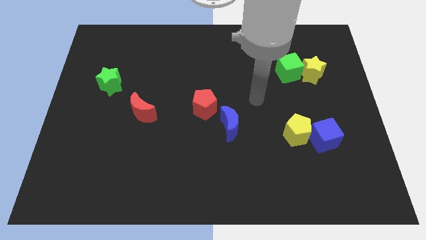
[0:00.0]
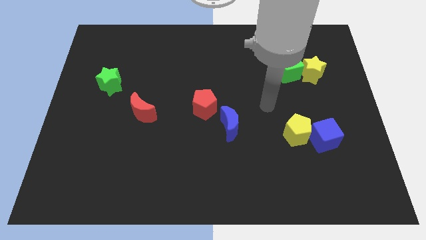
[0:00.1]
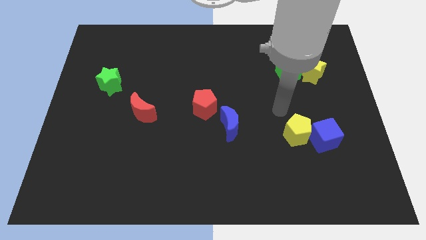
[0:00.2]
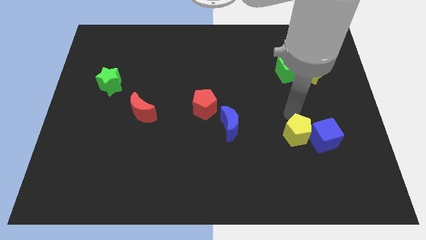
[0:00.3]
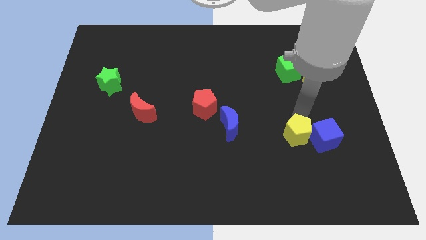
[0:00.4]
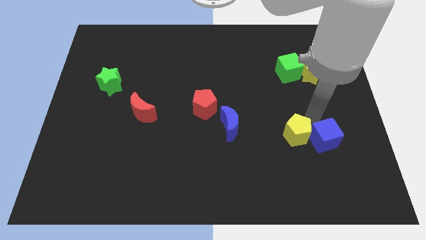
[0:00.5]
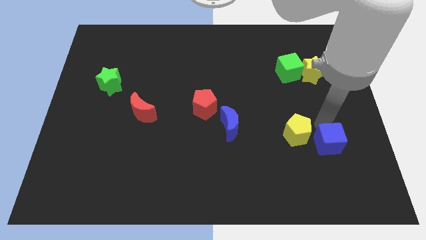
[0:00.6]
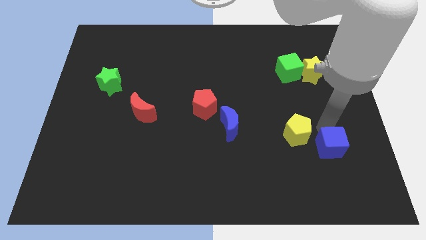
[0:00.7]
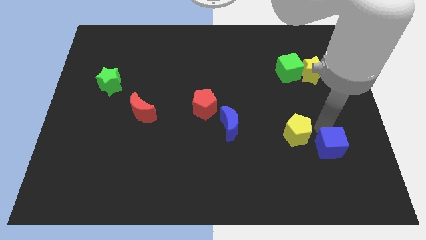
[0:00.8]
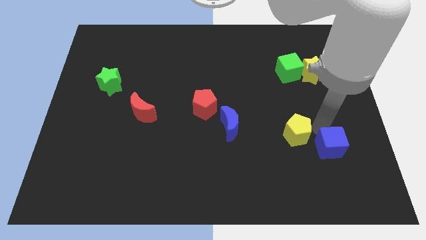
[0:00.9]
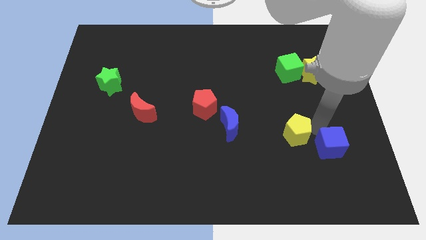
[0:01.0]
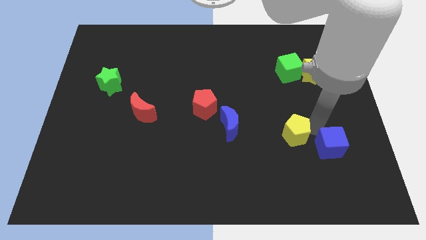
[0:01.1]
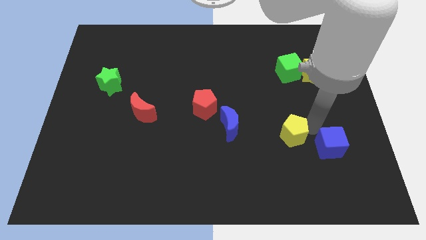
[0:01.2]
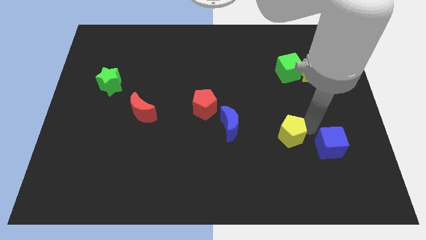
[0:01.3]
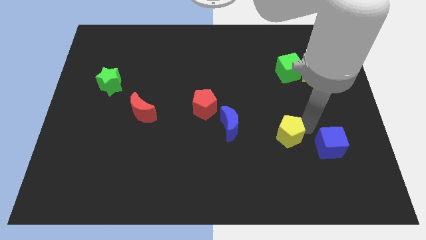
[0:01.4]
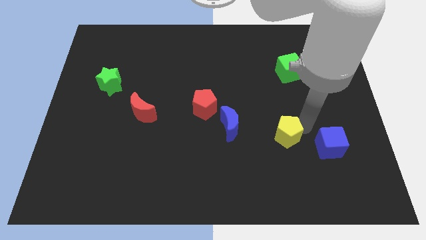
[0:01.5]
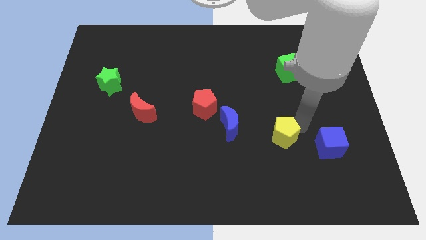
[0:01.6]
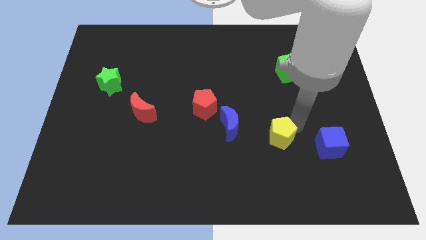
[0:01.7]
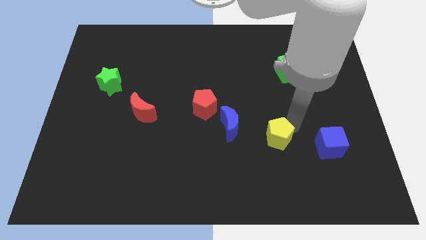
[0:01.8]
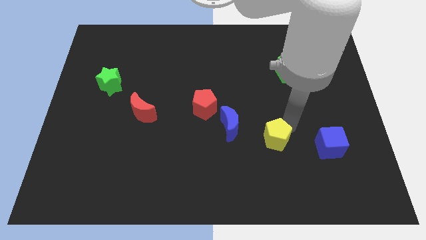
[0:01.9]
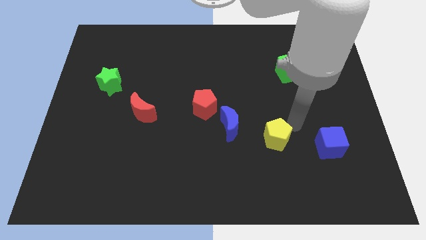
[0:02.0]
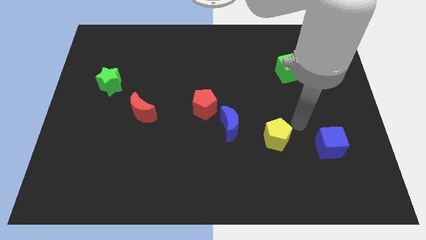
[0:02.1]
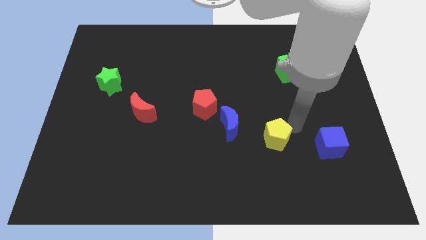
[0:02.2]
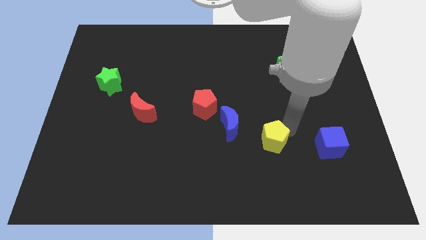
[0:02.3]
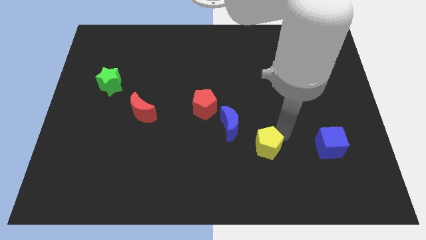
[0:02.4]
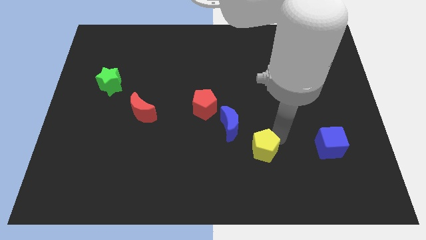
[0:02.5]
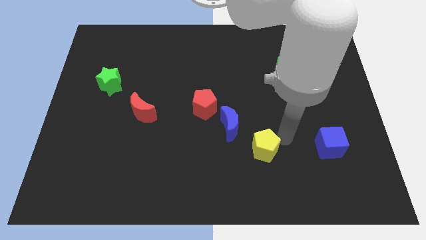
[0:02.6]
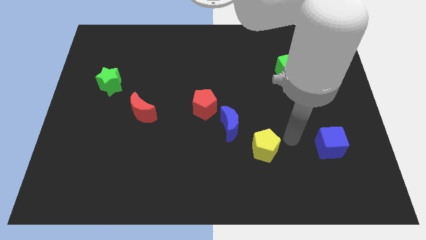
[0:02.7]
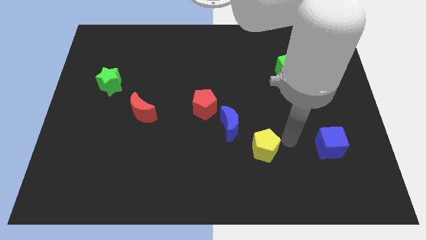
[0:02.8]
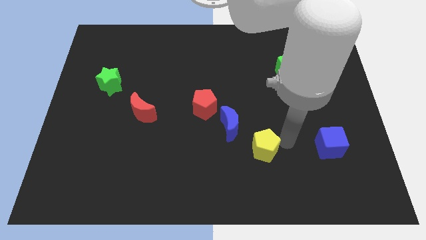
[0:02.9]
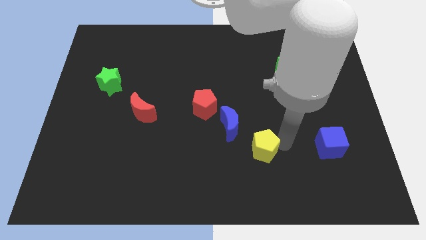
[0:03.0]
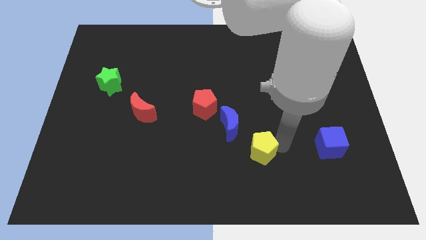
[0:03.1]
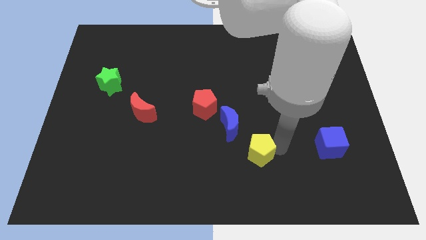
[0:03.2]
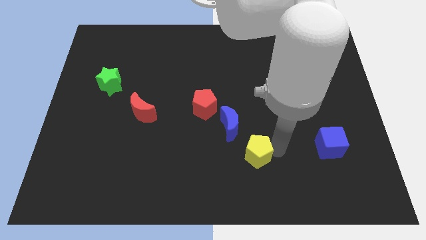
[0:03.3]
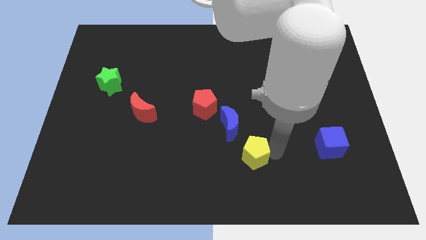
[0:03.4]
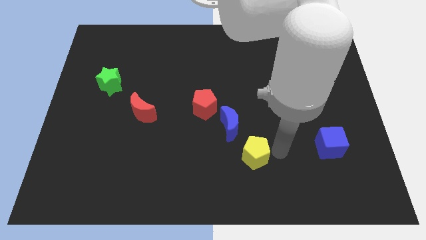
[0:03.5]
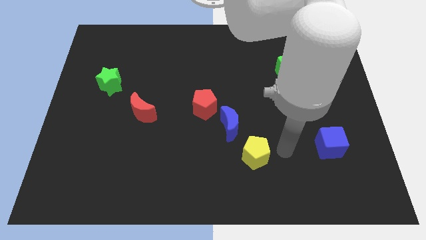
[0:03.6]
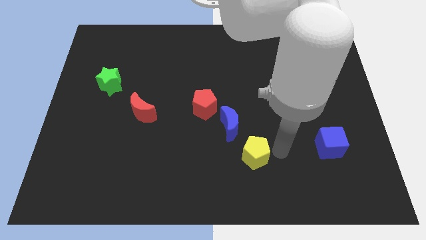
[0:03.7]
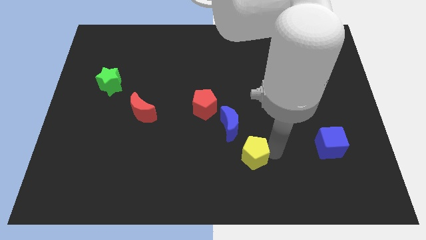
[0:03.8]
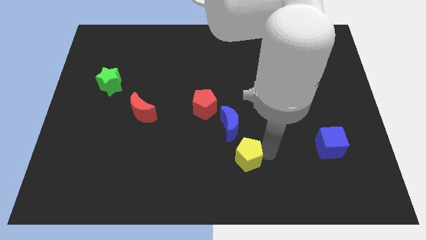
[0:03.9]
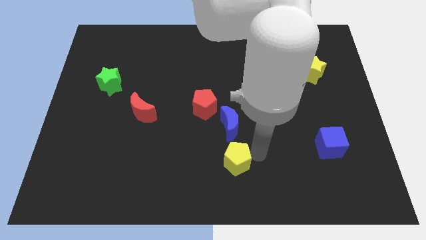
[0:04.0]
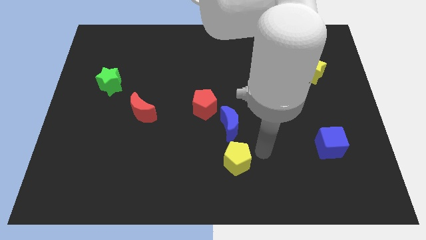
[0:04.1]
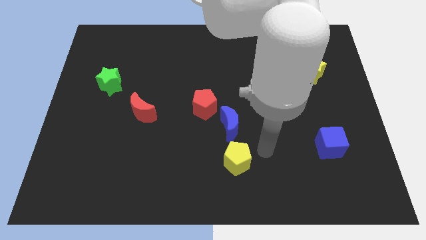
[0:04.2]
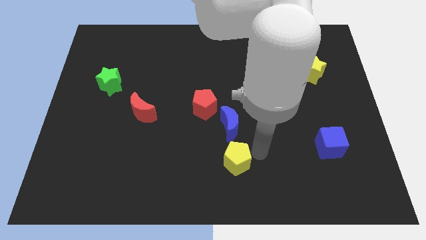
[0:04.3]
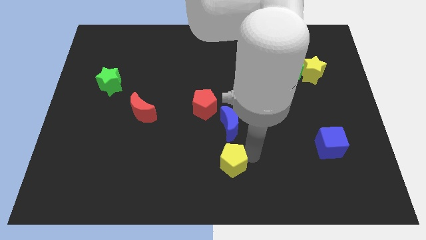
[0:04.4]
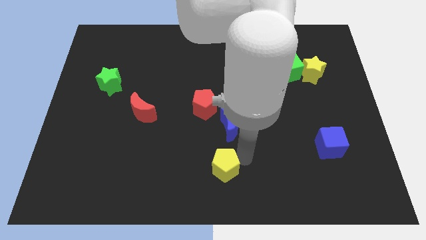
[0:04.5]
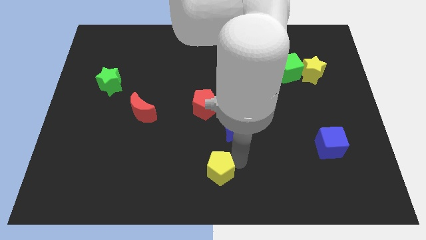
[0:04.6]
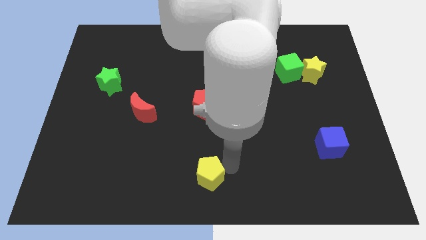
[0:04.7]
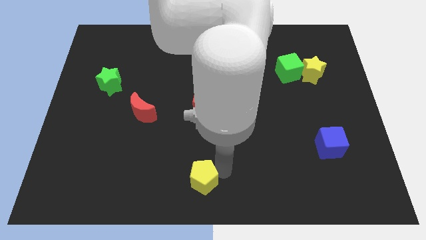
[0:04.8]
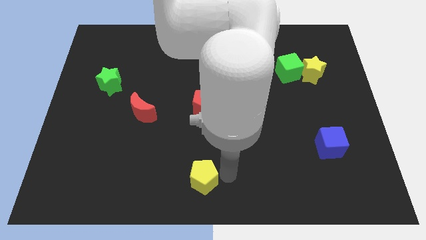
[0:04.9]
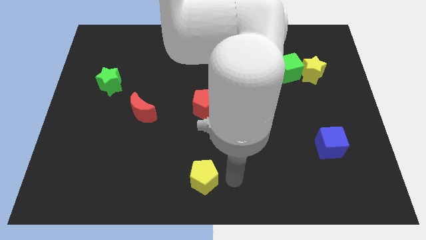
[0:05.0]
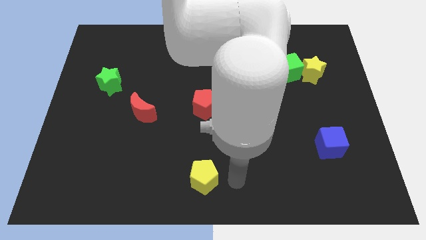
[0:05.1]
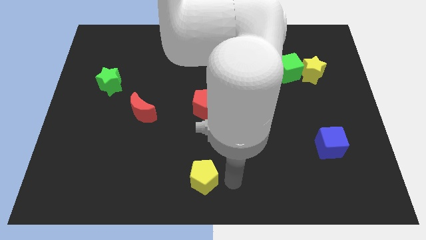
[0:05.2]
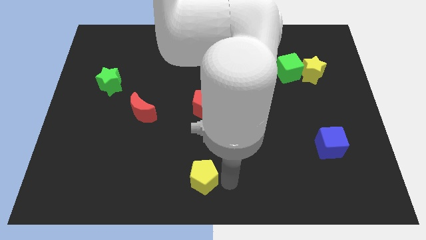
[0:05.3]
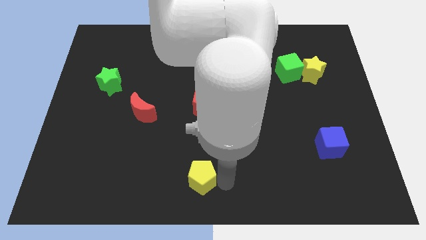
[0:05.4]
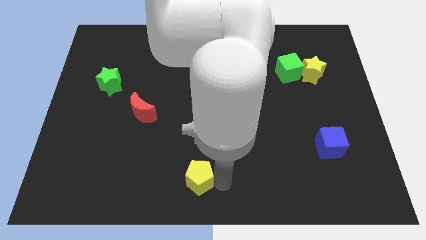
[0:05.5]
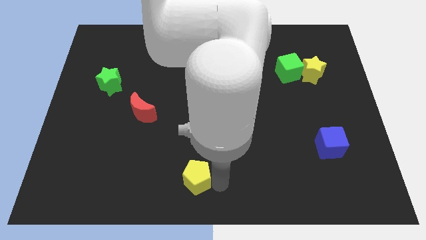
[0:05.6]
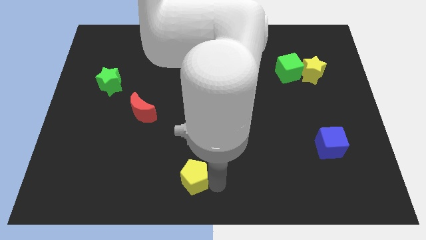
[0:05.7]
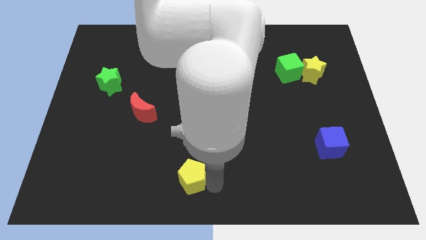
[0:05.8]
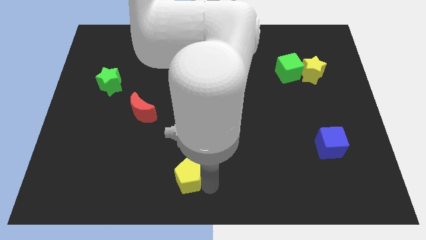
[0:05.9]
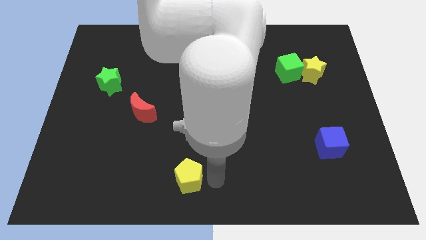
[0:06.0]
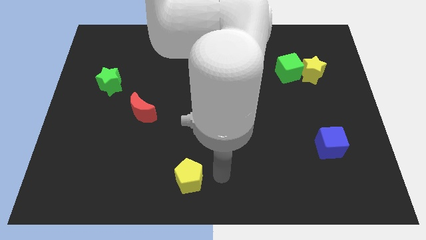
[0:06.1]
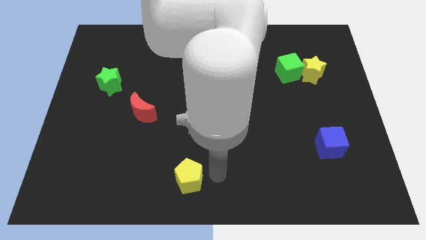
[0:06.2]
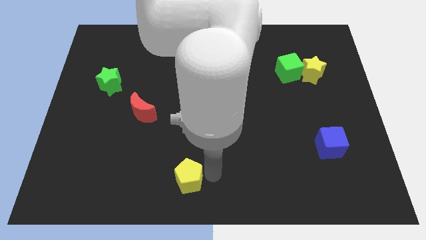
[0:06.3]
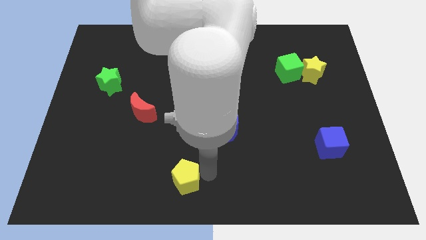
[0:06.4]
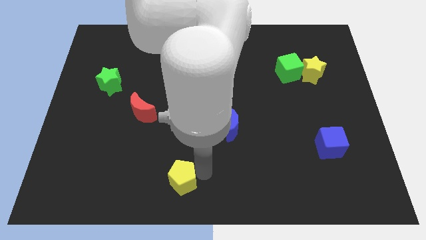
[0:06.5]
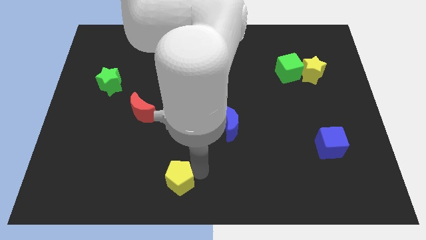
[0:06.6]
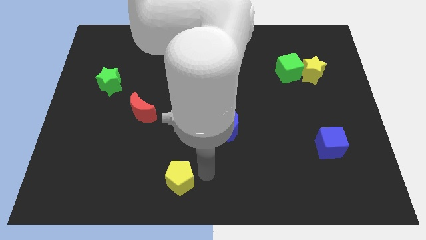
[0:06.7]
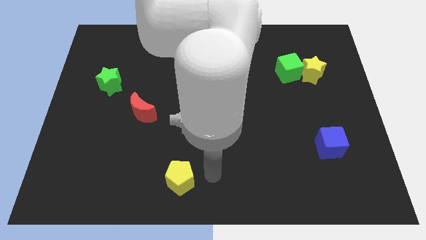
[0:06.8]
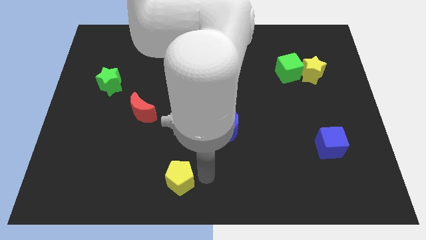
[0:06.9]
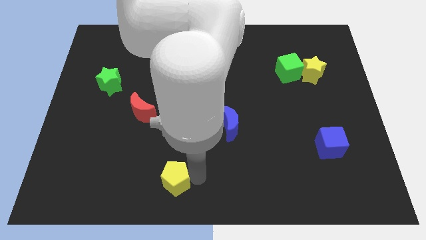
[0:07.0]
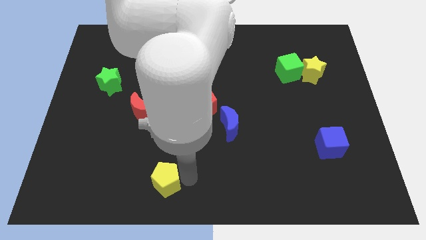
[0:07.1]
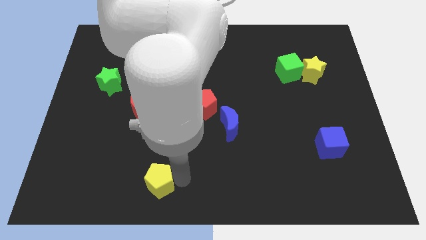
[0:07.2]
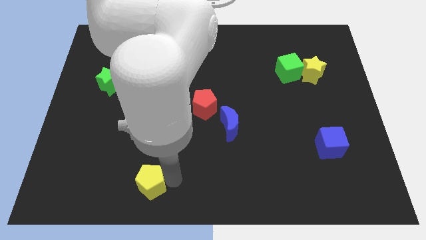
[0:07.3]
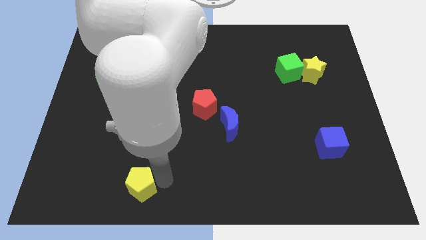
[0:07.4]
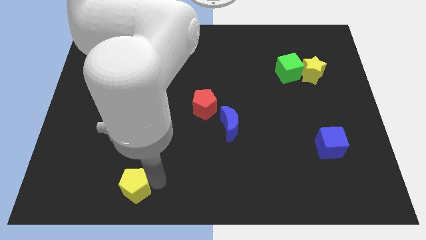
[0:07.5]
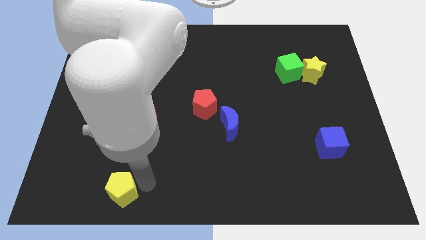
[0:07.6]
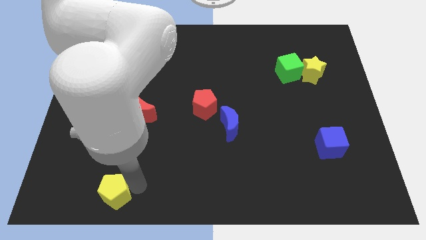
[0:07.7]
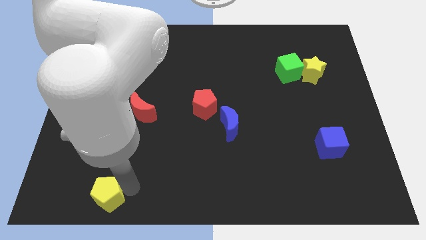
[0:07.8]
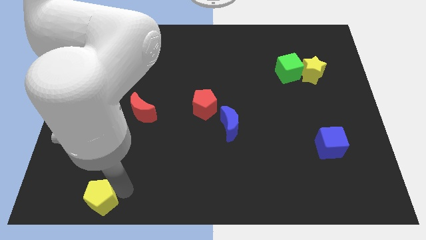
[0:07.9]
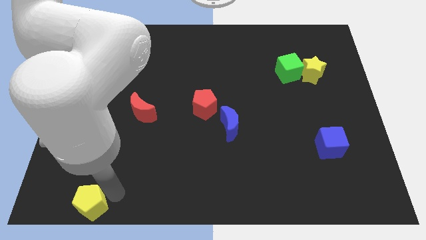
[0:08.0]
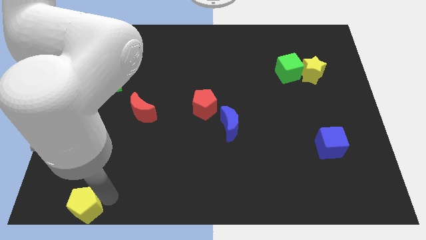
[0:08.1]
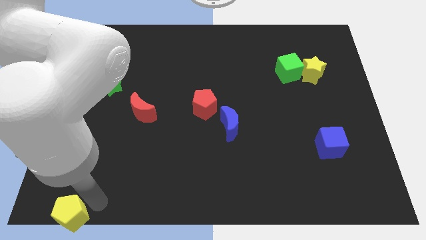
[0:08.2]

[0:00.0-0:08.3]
push the yellow pentagon to the lower left corner
